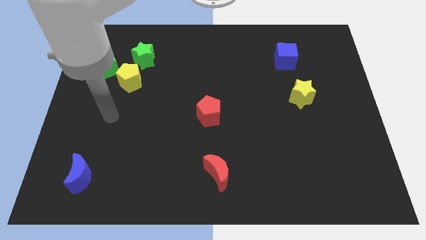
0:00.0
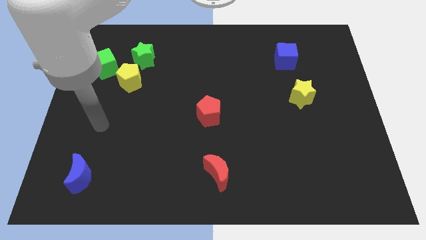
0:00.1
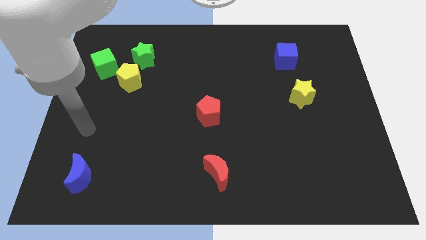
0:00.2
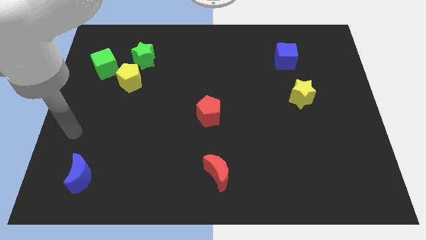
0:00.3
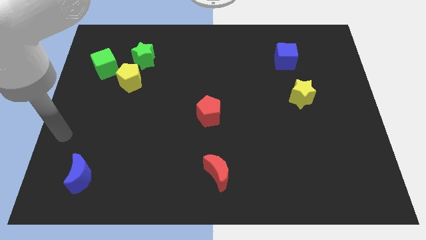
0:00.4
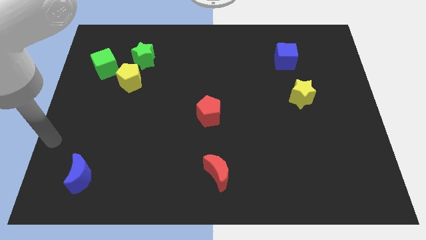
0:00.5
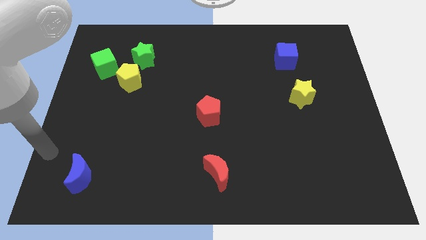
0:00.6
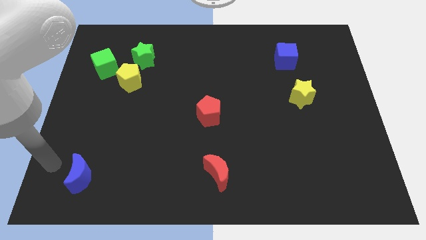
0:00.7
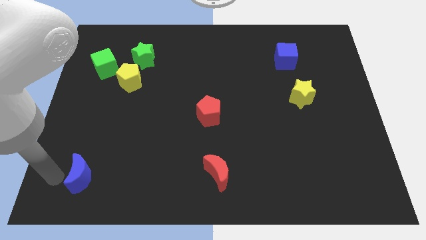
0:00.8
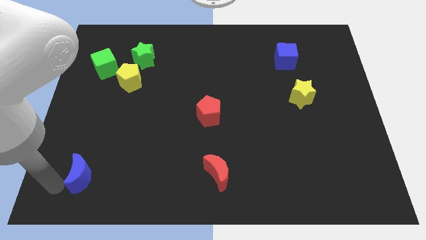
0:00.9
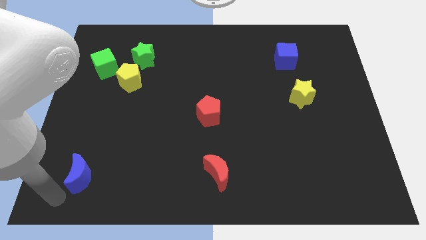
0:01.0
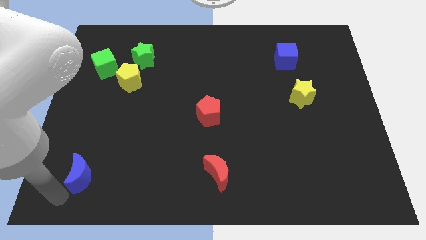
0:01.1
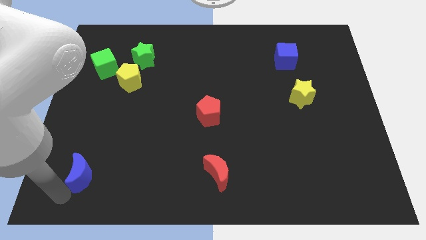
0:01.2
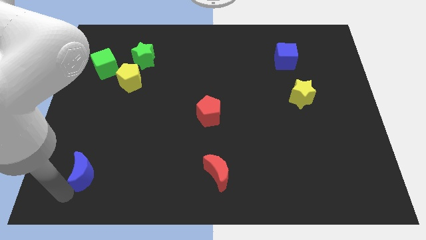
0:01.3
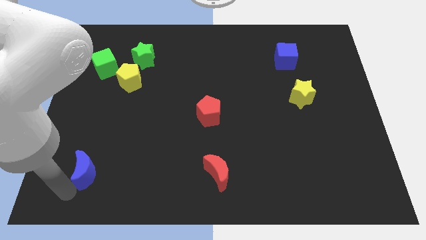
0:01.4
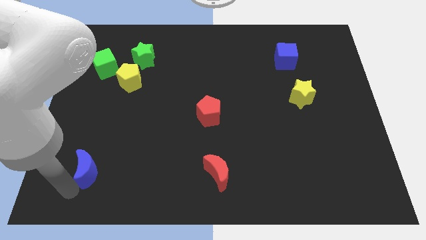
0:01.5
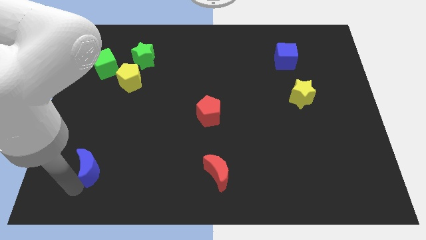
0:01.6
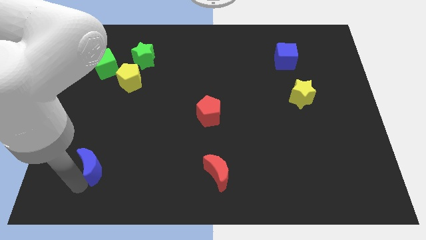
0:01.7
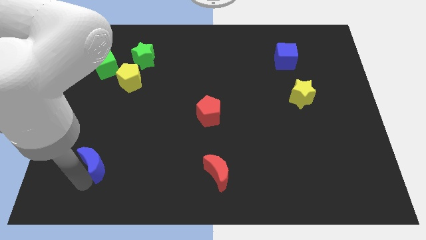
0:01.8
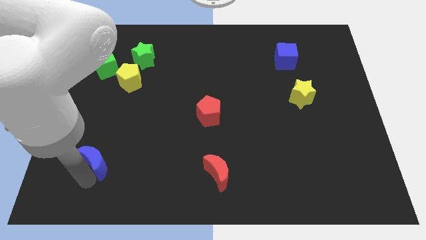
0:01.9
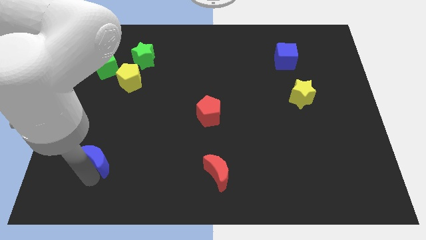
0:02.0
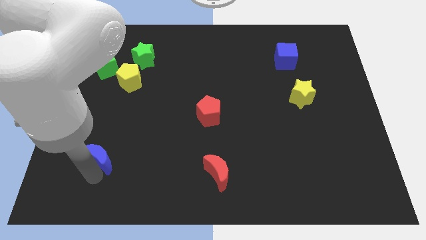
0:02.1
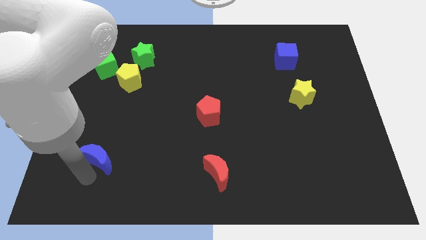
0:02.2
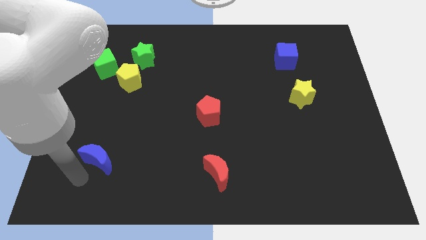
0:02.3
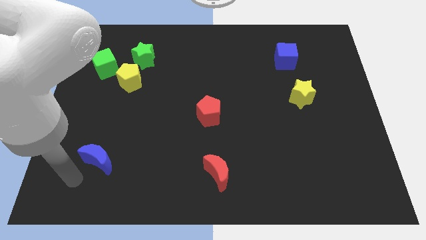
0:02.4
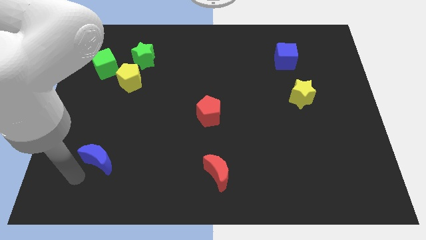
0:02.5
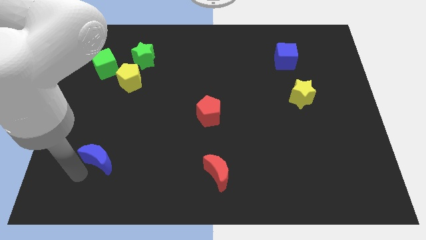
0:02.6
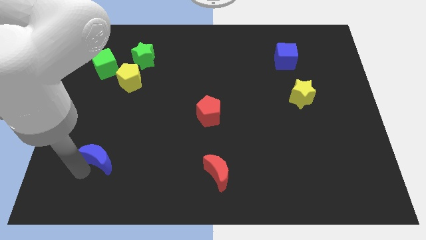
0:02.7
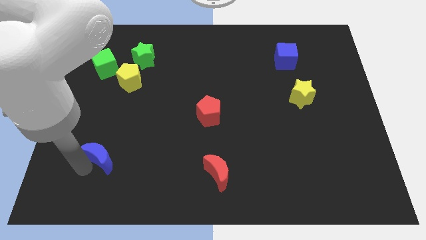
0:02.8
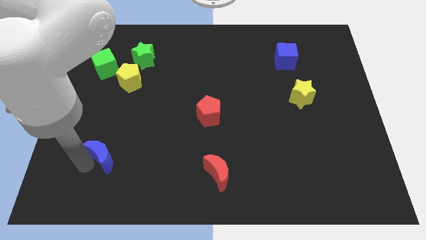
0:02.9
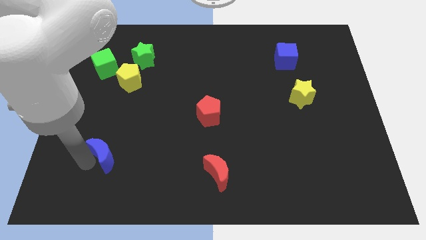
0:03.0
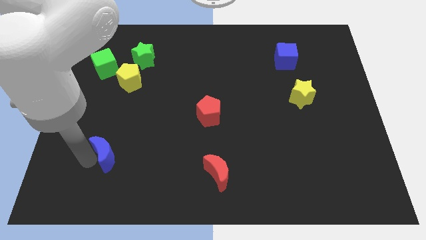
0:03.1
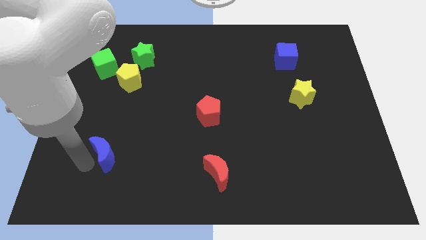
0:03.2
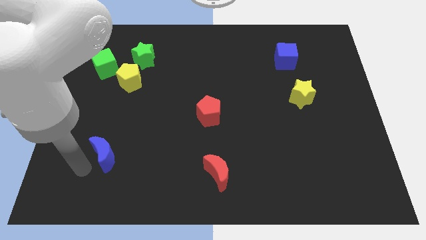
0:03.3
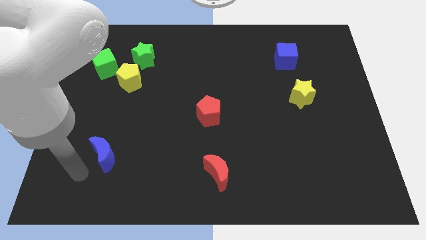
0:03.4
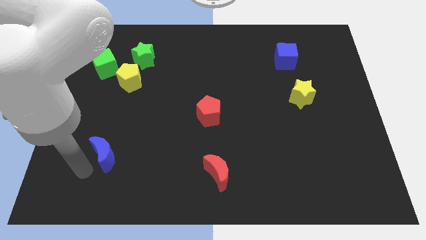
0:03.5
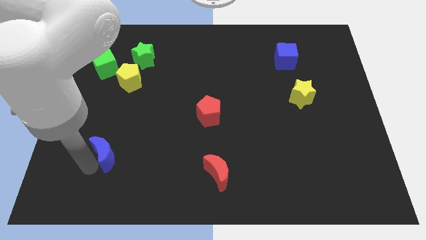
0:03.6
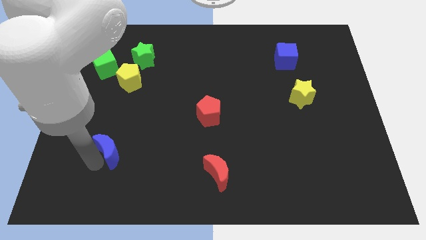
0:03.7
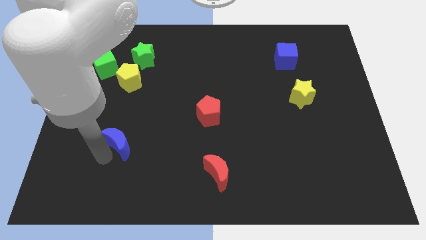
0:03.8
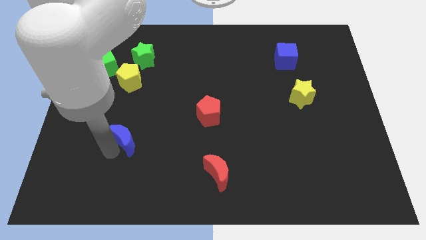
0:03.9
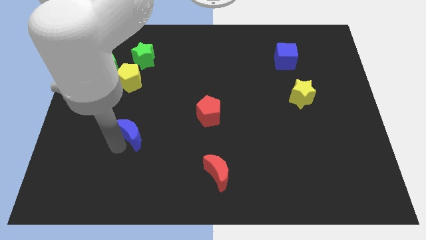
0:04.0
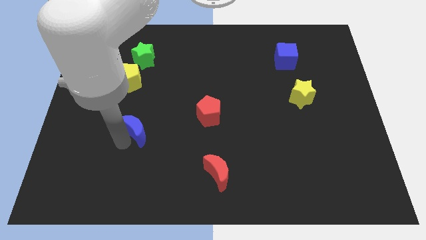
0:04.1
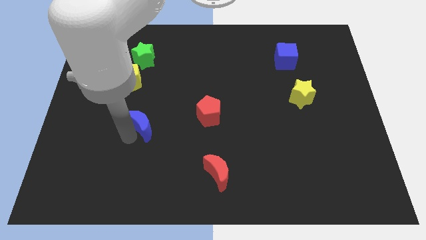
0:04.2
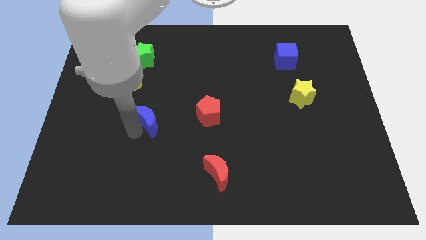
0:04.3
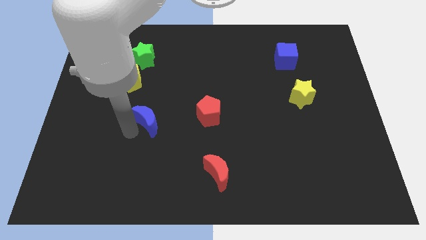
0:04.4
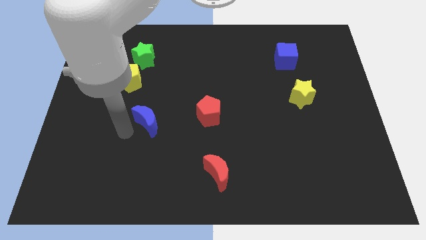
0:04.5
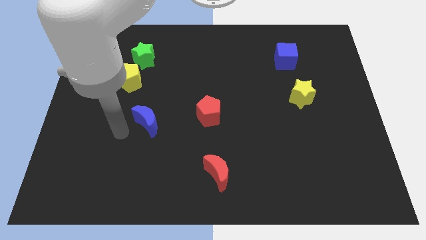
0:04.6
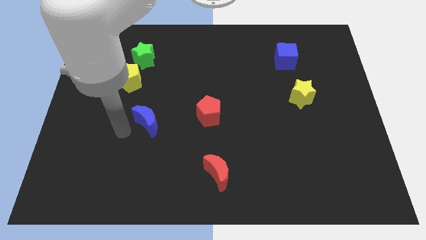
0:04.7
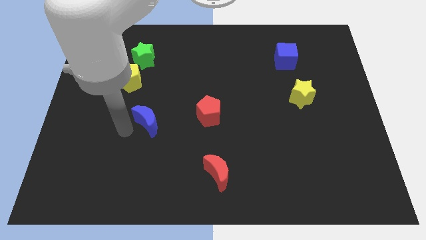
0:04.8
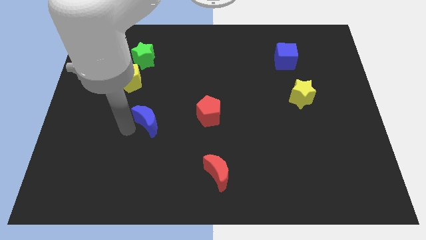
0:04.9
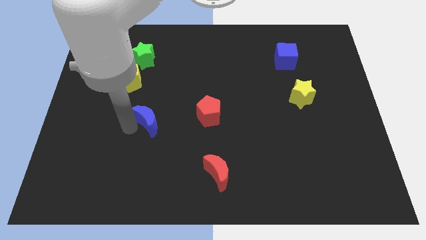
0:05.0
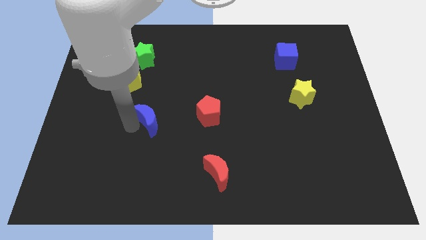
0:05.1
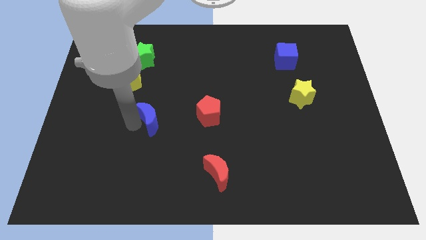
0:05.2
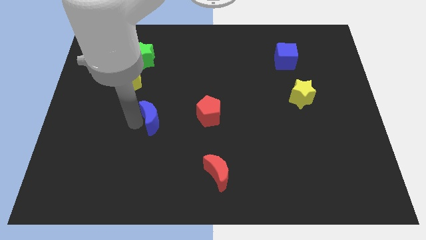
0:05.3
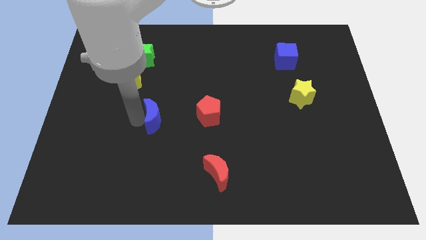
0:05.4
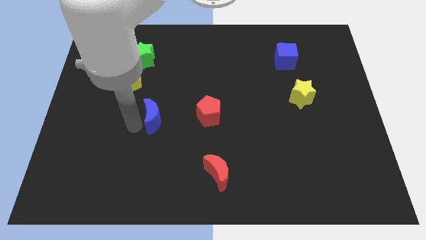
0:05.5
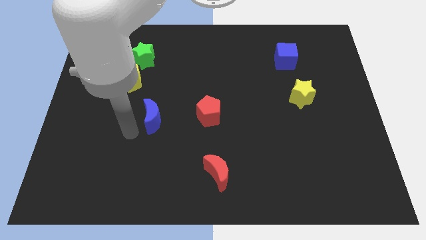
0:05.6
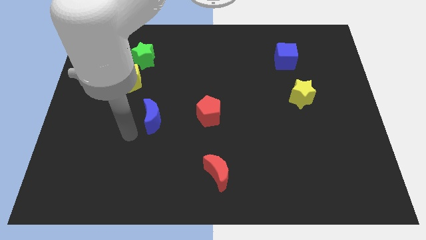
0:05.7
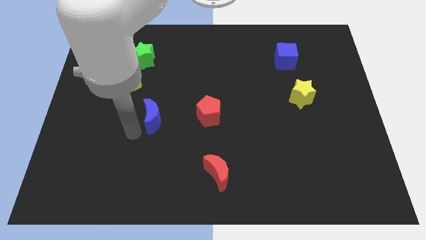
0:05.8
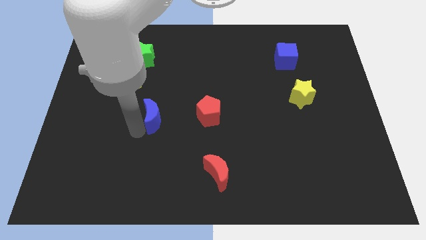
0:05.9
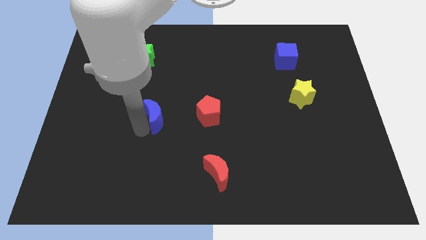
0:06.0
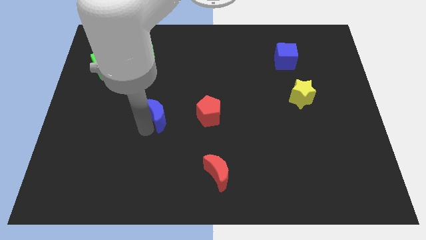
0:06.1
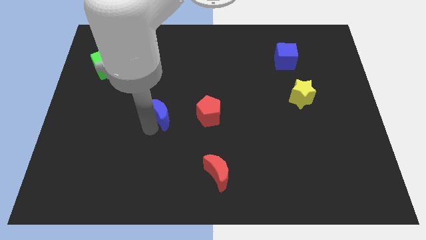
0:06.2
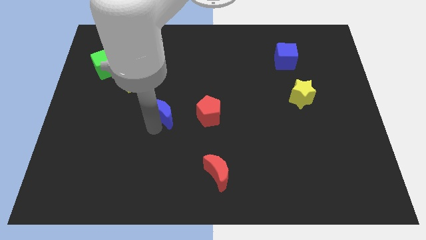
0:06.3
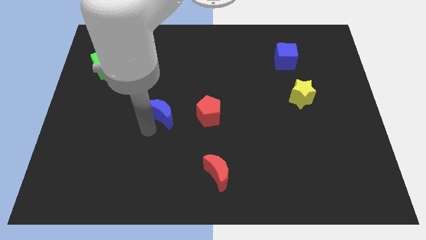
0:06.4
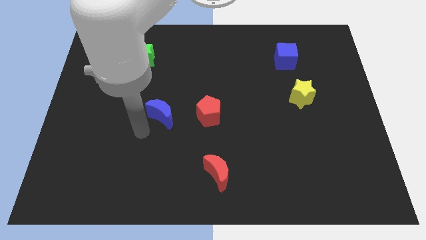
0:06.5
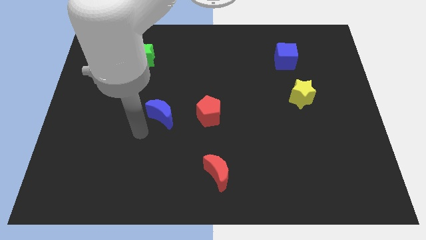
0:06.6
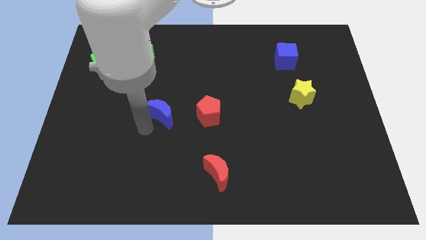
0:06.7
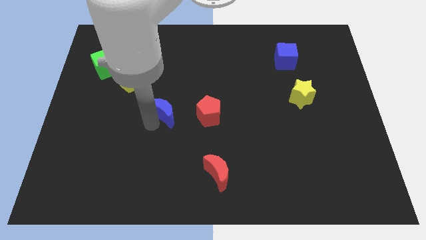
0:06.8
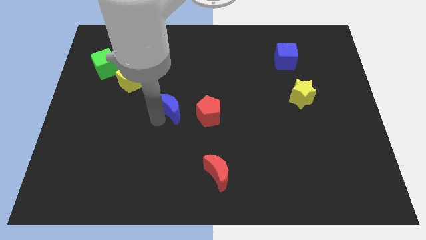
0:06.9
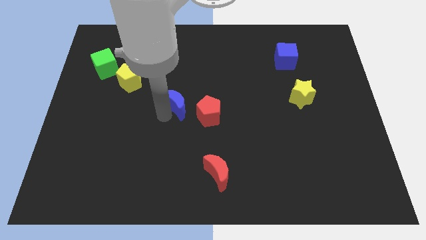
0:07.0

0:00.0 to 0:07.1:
slide the blue moon diagonally up and to the left of the red pentagon

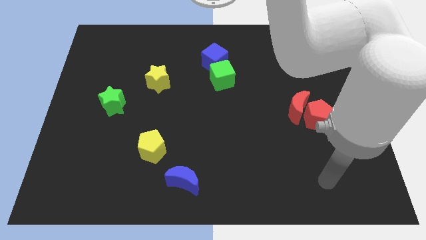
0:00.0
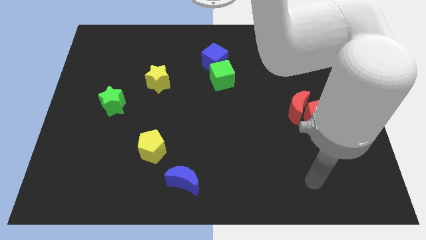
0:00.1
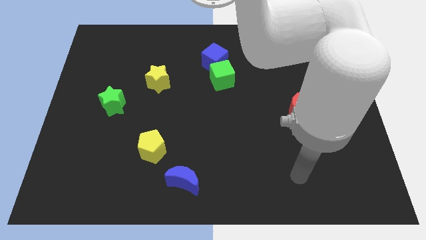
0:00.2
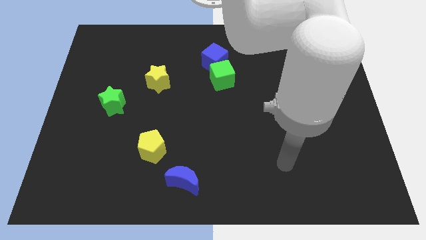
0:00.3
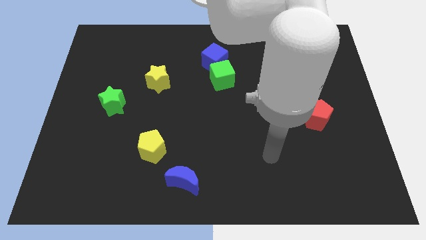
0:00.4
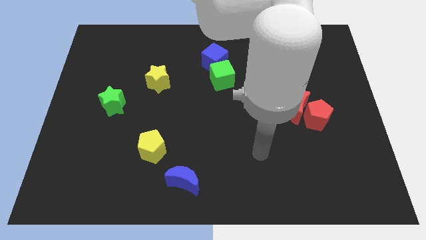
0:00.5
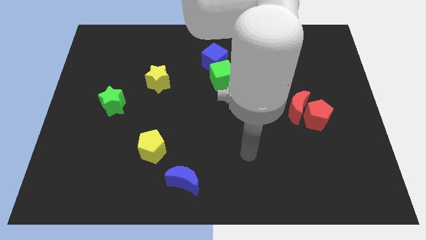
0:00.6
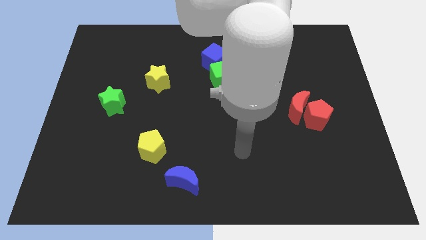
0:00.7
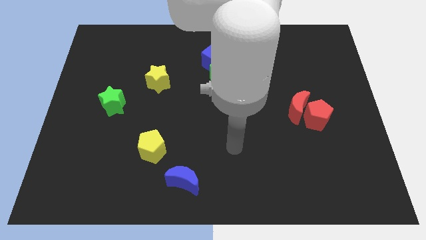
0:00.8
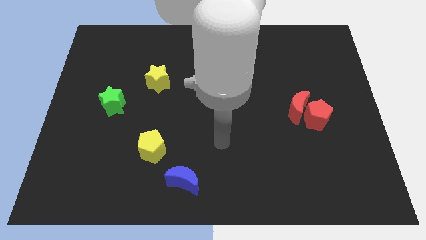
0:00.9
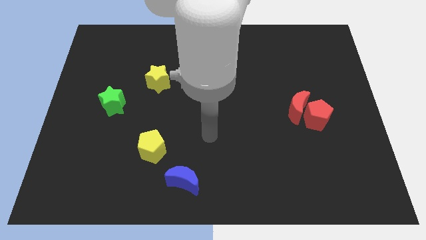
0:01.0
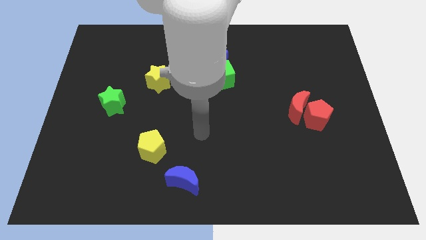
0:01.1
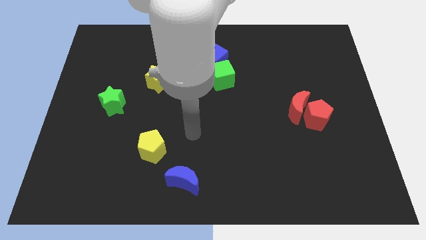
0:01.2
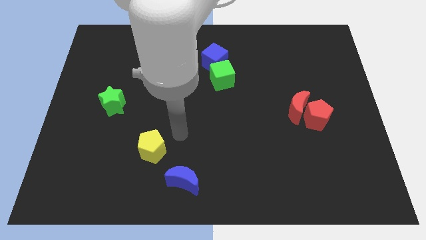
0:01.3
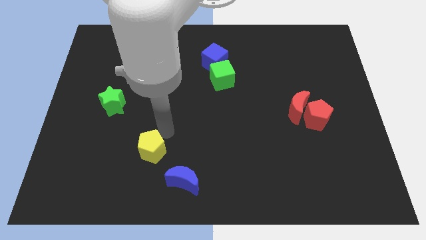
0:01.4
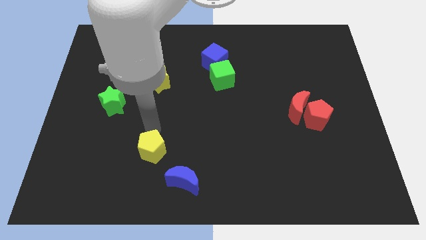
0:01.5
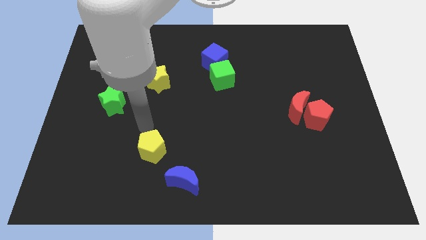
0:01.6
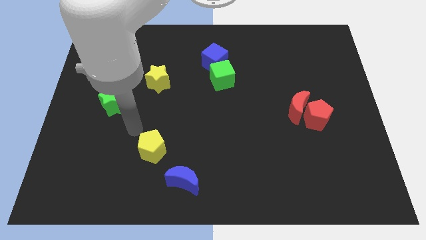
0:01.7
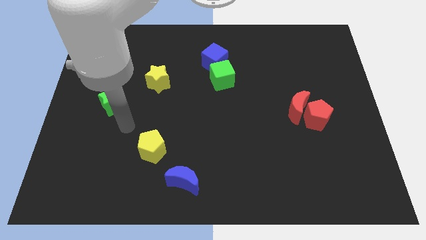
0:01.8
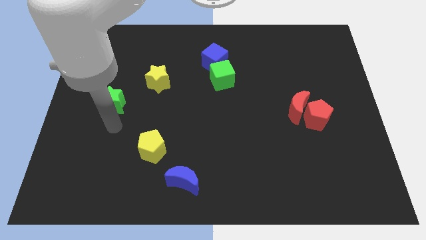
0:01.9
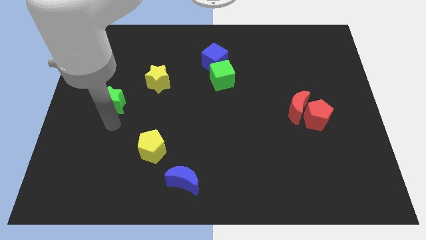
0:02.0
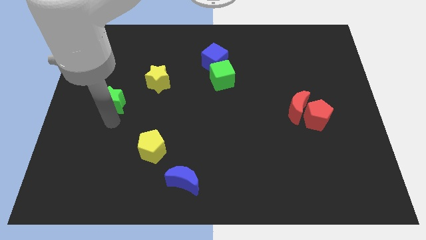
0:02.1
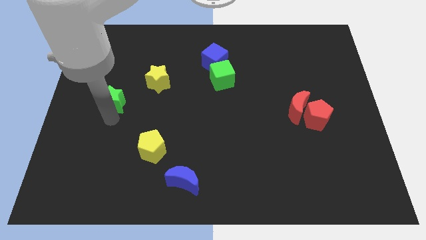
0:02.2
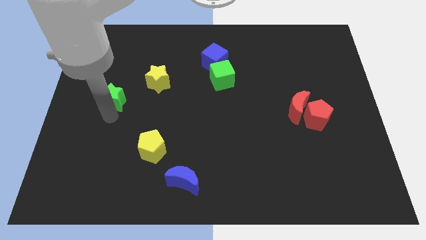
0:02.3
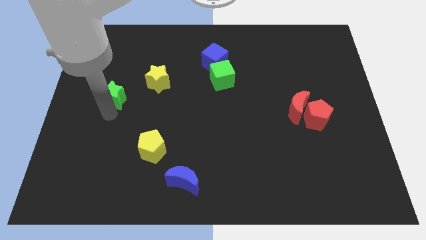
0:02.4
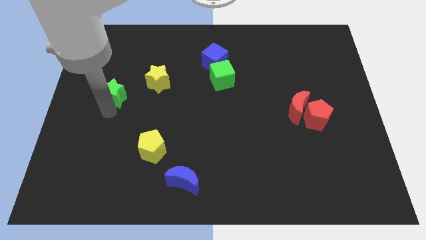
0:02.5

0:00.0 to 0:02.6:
put the green star to the left of the yellow star
